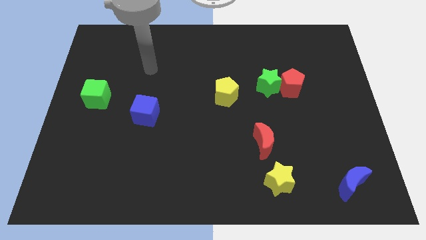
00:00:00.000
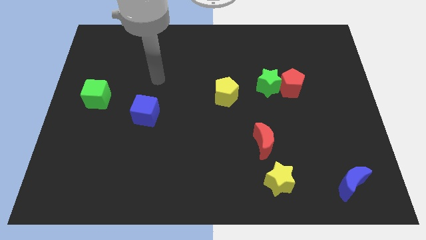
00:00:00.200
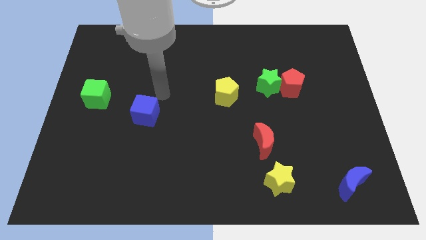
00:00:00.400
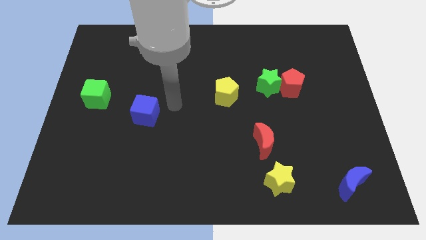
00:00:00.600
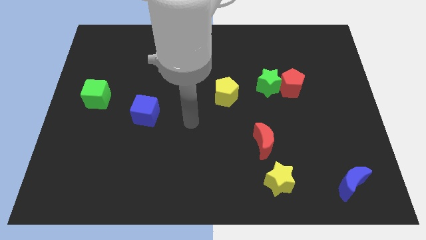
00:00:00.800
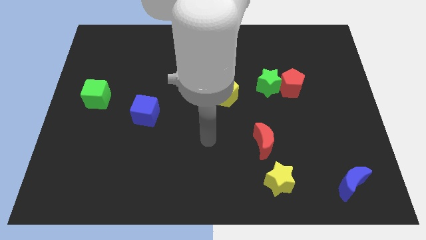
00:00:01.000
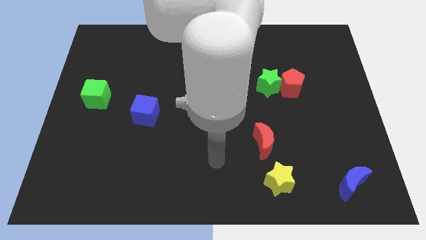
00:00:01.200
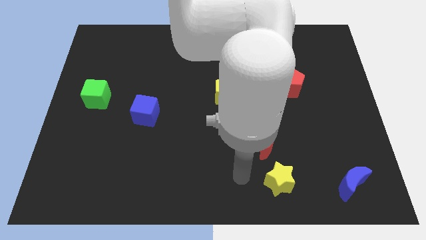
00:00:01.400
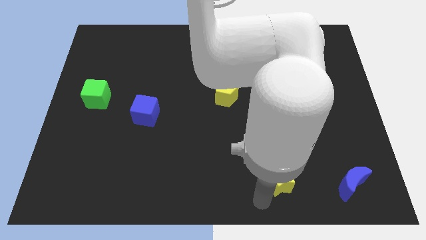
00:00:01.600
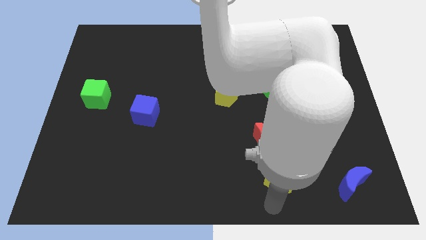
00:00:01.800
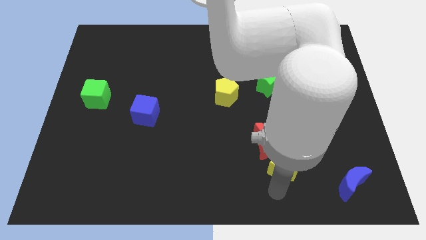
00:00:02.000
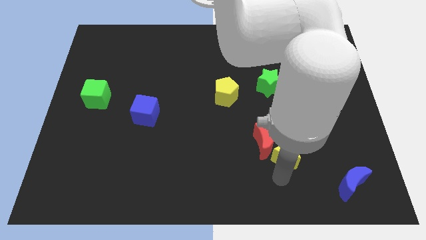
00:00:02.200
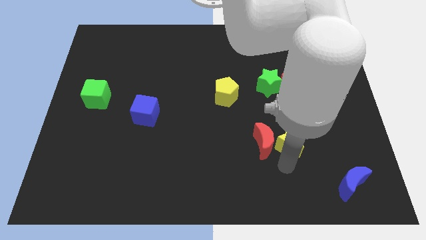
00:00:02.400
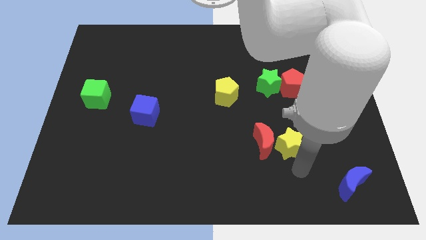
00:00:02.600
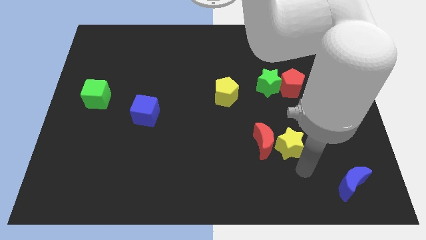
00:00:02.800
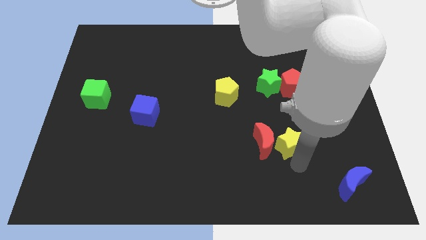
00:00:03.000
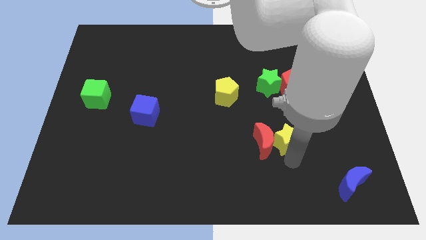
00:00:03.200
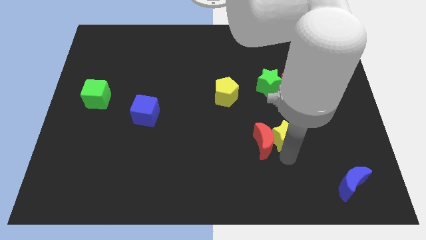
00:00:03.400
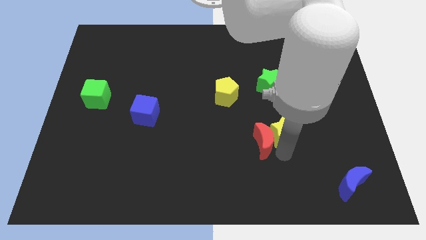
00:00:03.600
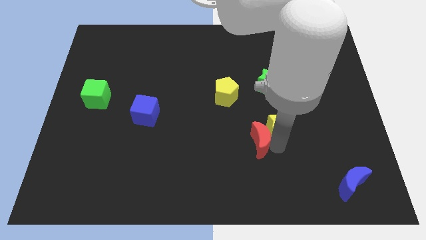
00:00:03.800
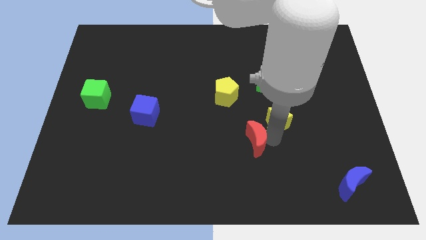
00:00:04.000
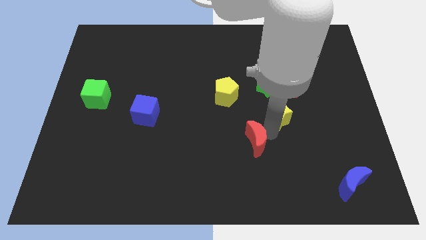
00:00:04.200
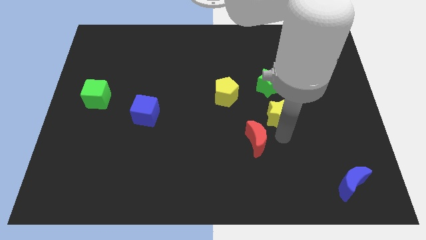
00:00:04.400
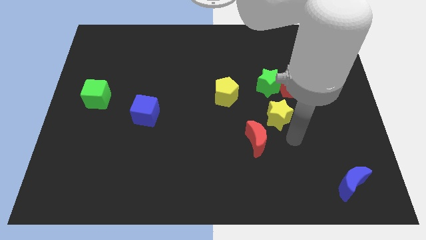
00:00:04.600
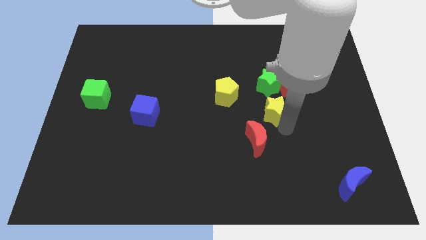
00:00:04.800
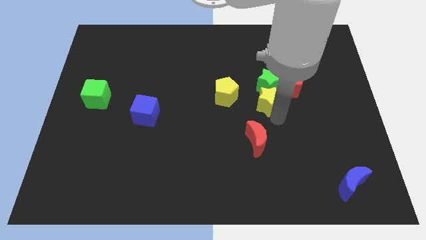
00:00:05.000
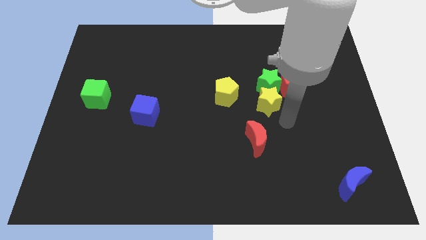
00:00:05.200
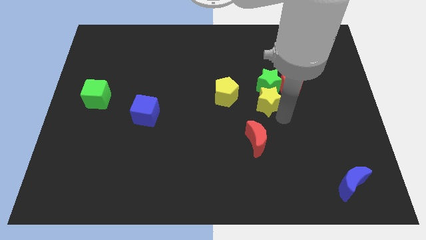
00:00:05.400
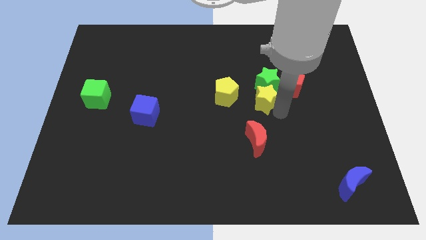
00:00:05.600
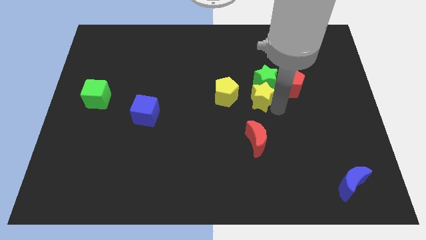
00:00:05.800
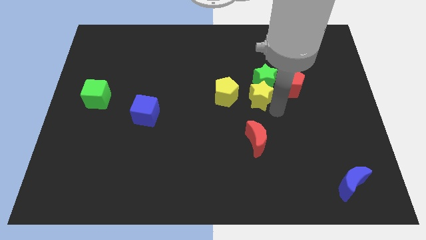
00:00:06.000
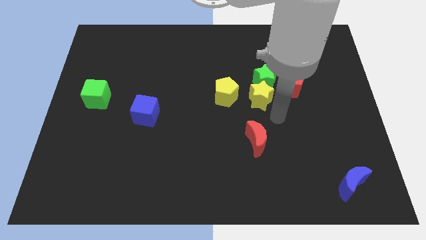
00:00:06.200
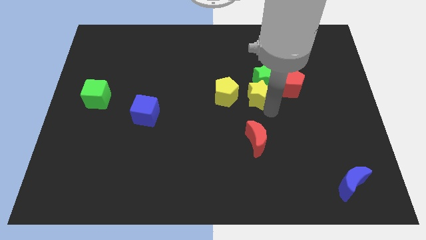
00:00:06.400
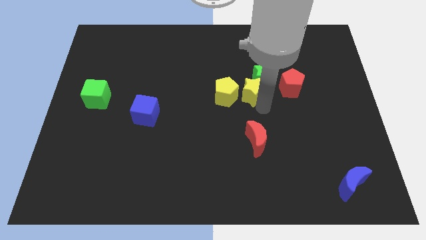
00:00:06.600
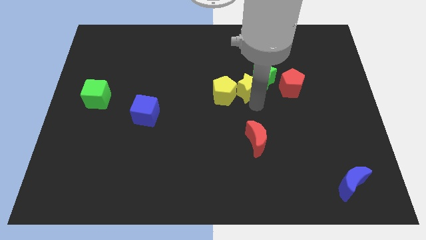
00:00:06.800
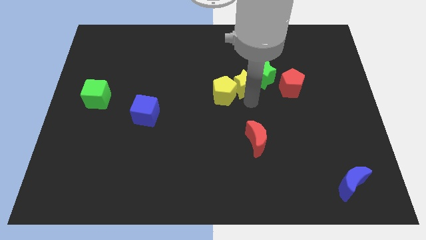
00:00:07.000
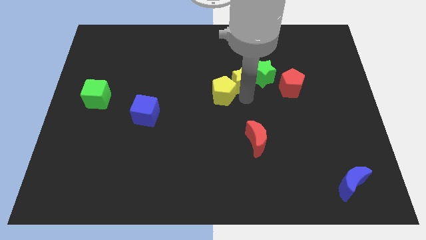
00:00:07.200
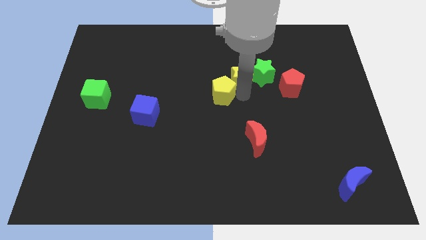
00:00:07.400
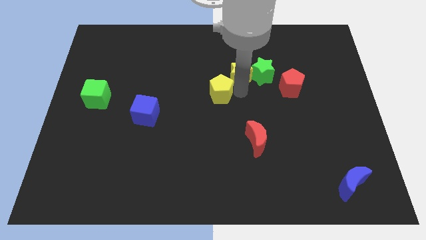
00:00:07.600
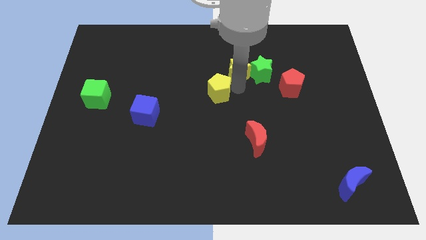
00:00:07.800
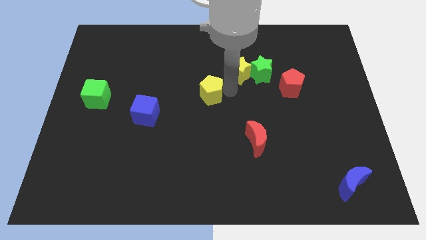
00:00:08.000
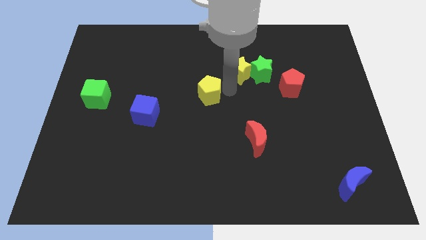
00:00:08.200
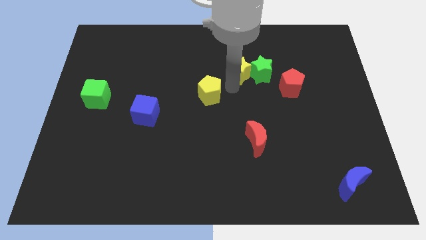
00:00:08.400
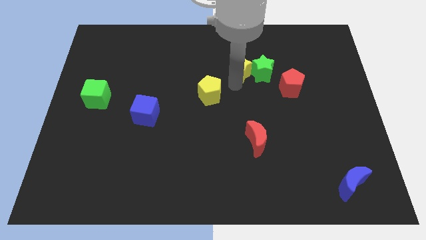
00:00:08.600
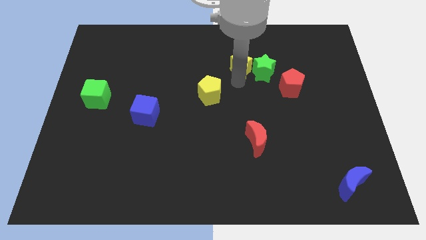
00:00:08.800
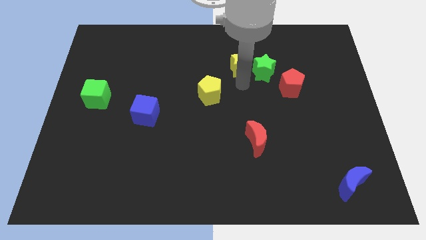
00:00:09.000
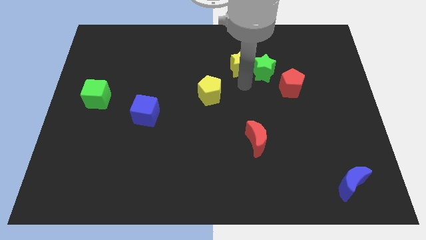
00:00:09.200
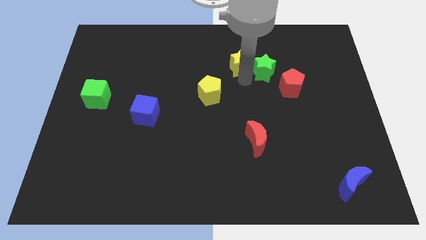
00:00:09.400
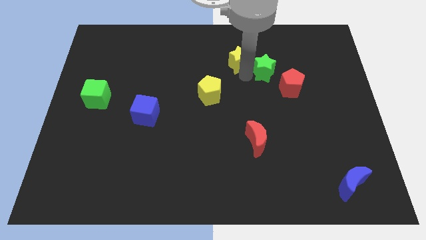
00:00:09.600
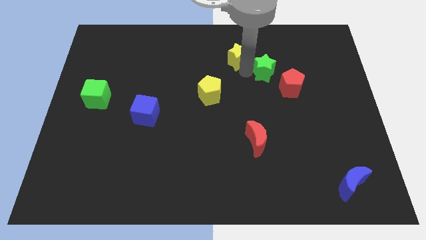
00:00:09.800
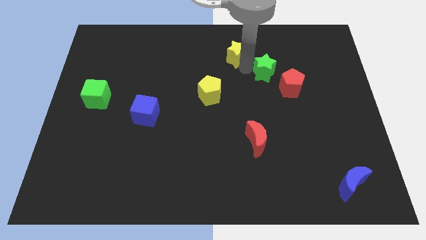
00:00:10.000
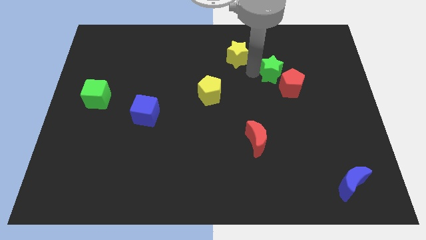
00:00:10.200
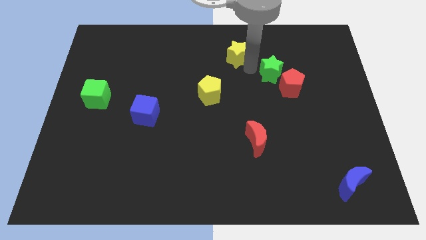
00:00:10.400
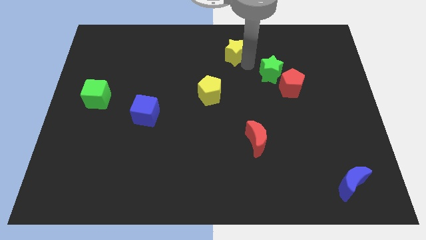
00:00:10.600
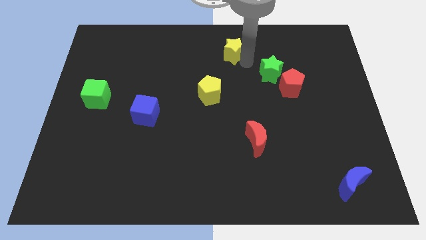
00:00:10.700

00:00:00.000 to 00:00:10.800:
push the yellow star to the top side

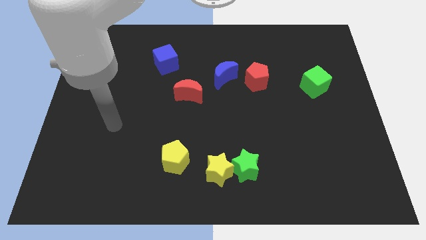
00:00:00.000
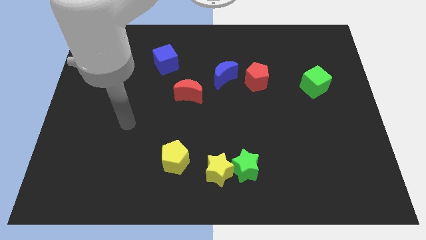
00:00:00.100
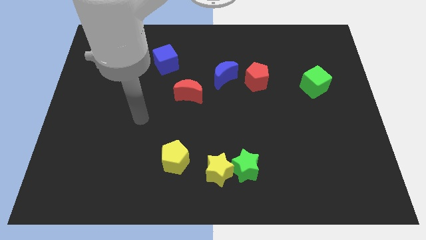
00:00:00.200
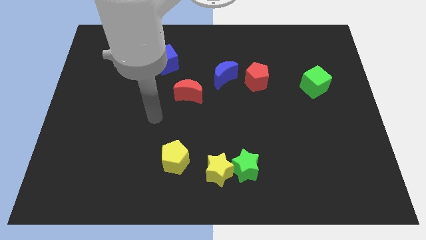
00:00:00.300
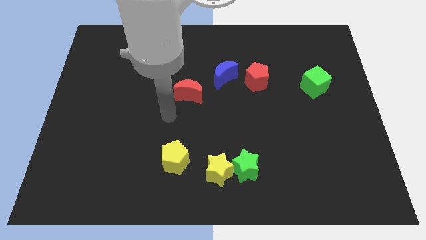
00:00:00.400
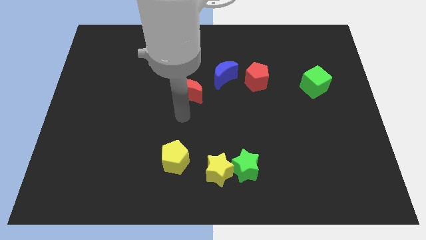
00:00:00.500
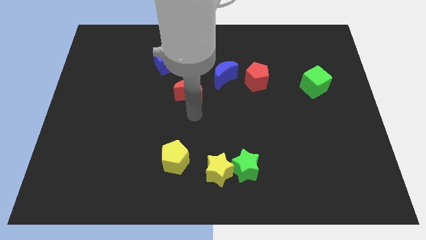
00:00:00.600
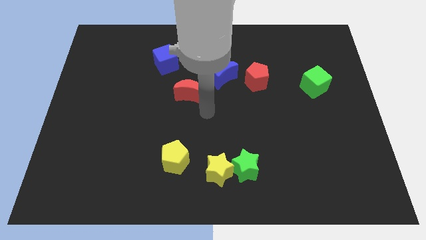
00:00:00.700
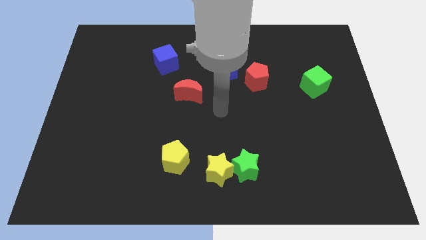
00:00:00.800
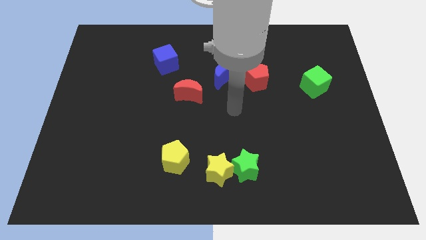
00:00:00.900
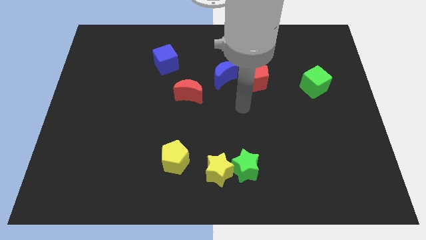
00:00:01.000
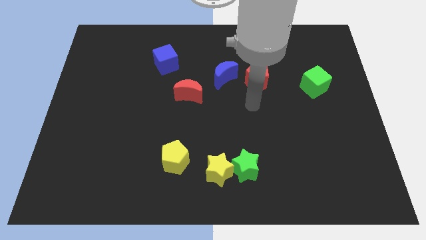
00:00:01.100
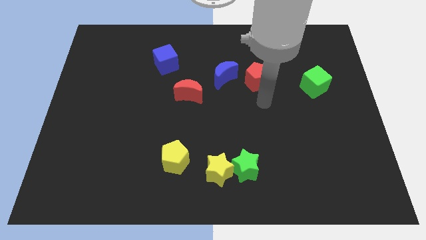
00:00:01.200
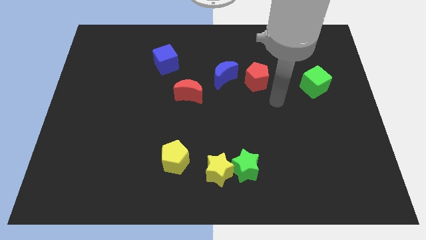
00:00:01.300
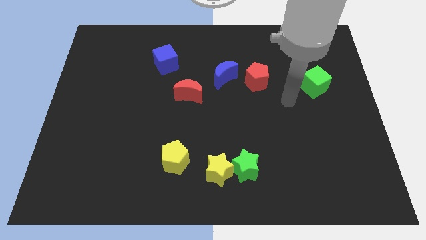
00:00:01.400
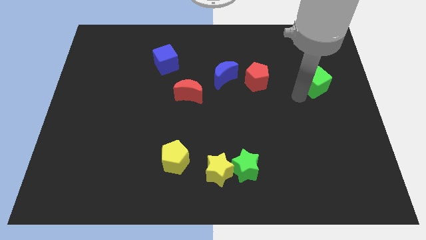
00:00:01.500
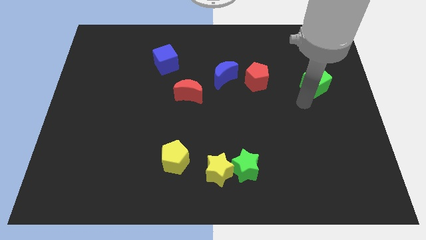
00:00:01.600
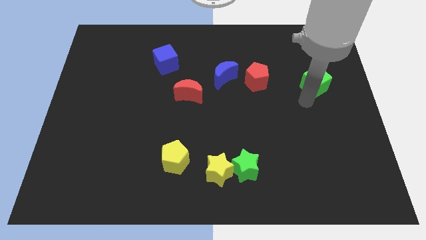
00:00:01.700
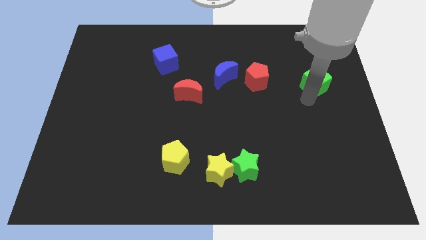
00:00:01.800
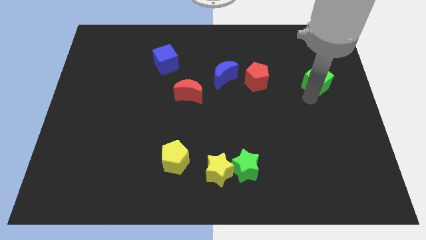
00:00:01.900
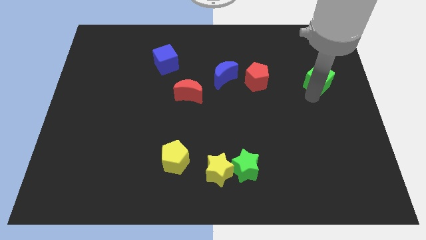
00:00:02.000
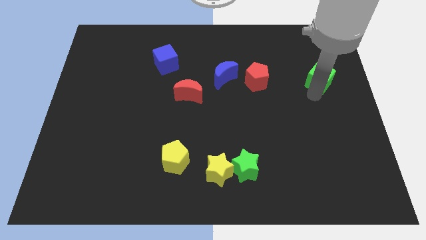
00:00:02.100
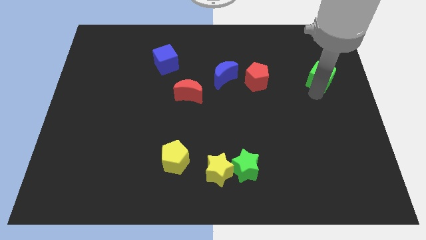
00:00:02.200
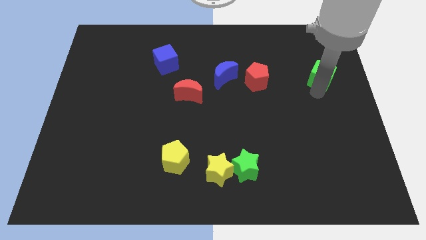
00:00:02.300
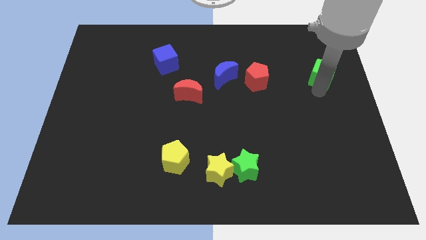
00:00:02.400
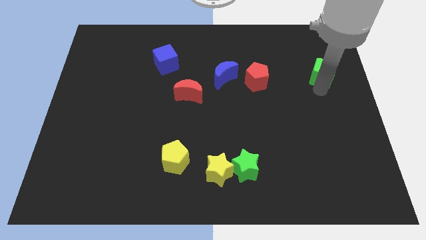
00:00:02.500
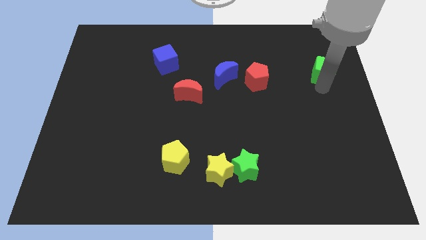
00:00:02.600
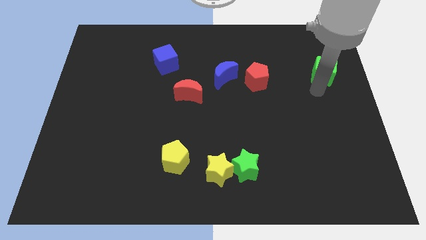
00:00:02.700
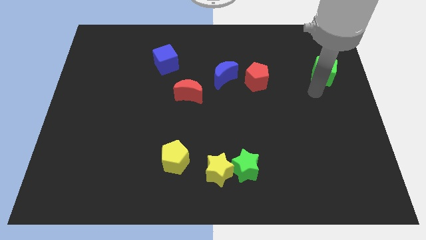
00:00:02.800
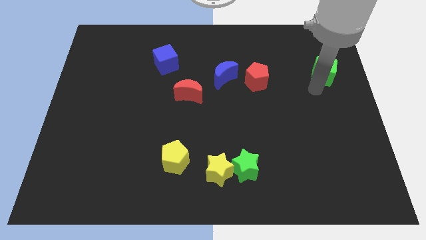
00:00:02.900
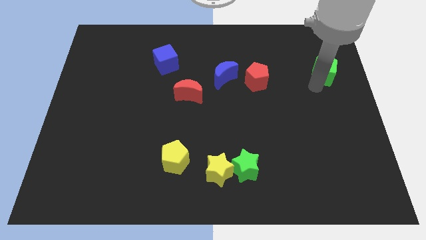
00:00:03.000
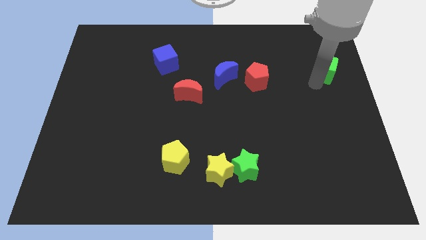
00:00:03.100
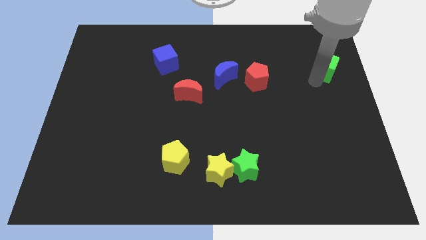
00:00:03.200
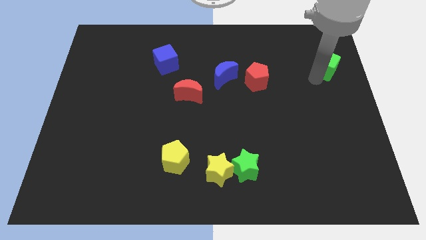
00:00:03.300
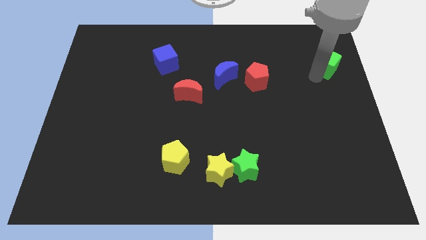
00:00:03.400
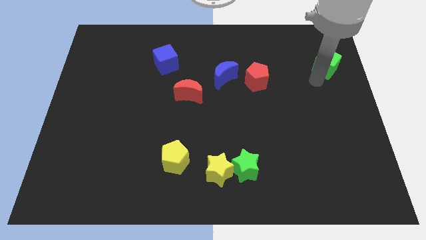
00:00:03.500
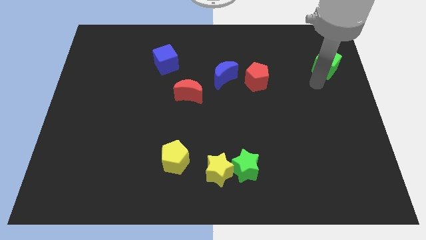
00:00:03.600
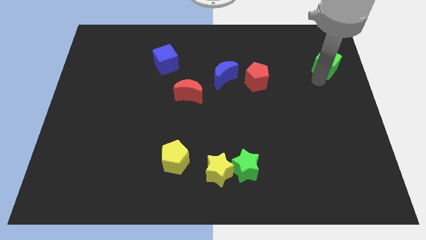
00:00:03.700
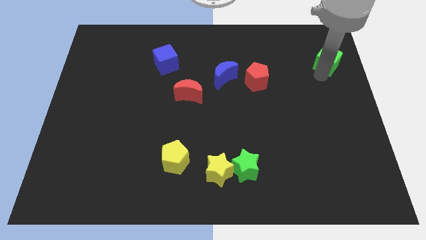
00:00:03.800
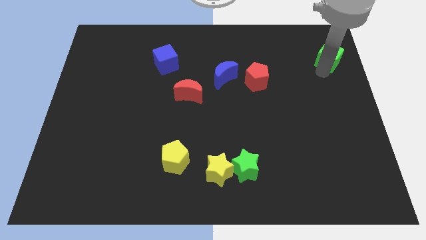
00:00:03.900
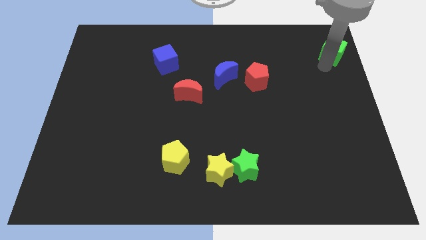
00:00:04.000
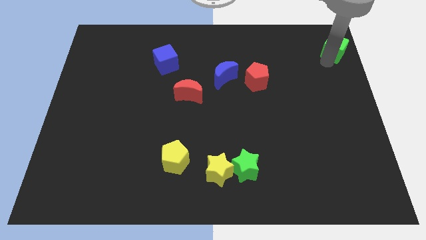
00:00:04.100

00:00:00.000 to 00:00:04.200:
slide the green cube to the top right
